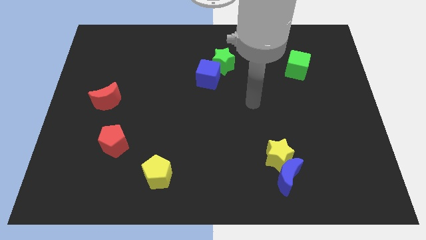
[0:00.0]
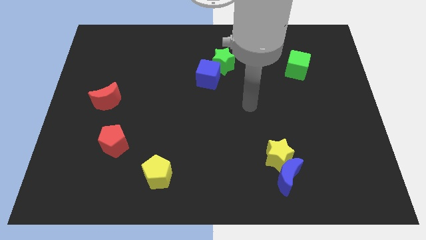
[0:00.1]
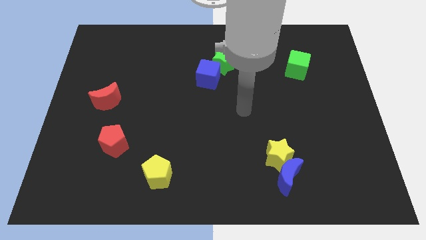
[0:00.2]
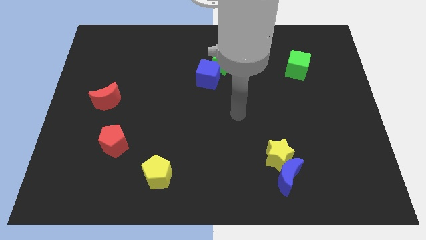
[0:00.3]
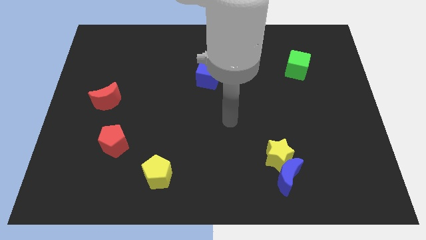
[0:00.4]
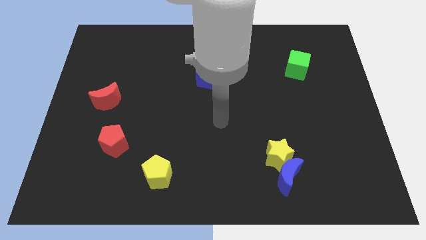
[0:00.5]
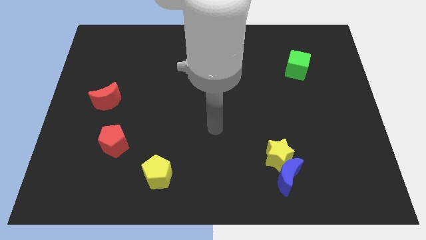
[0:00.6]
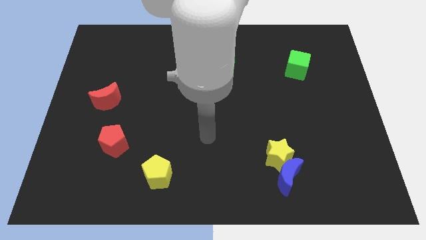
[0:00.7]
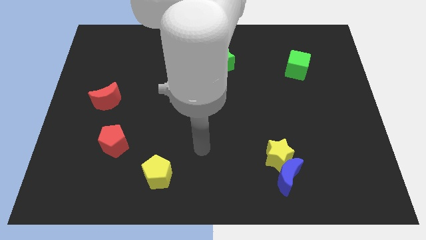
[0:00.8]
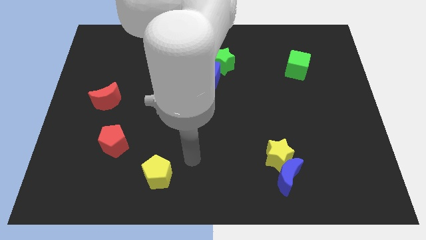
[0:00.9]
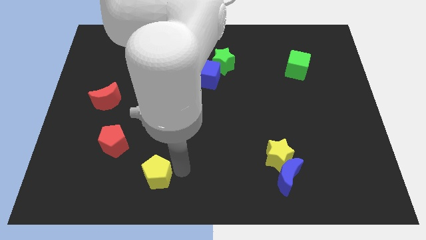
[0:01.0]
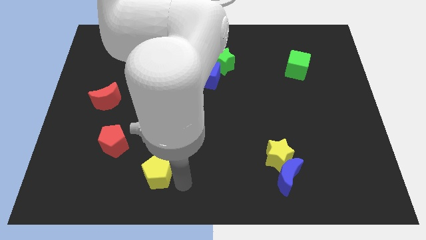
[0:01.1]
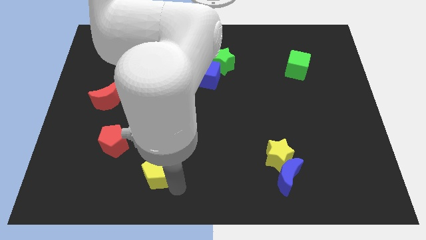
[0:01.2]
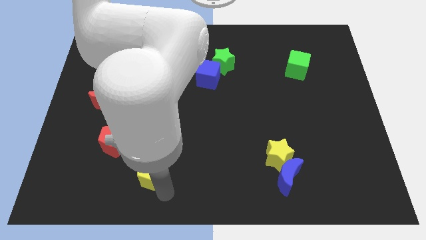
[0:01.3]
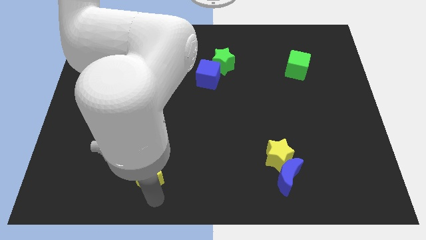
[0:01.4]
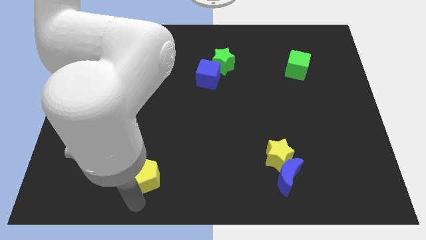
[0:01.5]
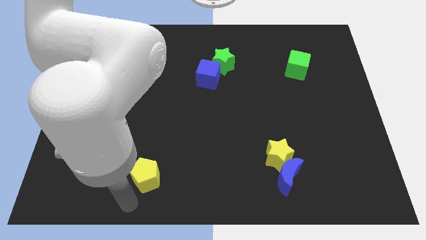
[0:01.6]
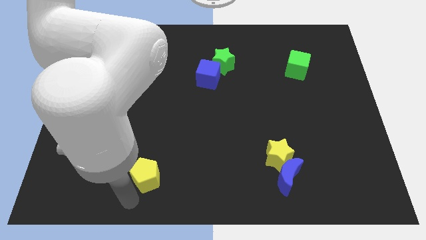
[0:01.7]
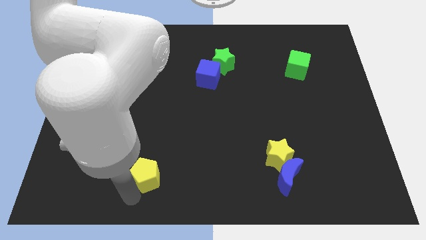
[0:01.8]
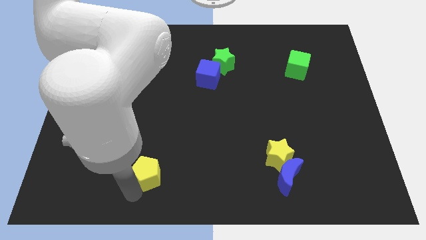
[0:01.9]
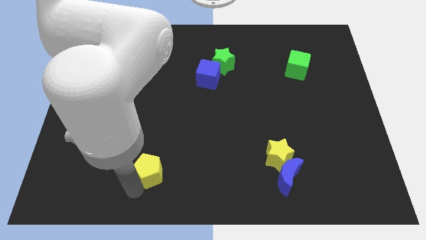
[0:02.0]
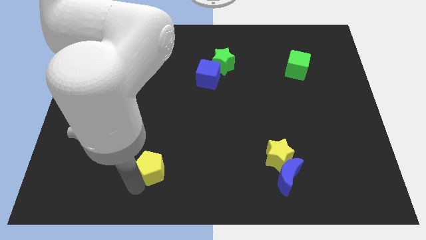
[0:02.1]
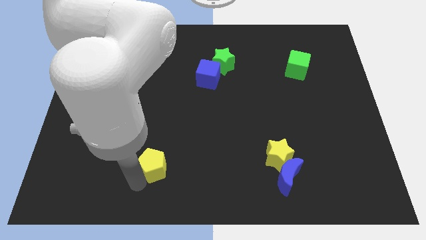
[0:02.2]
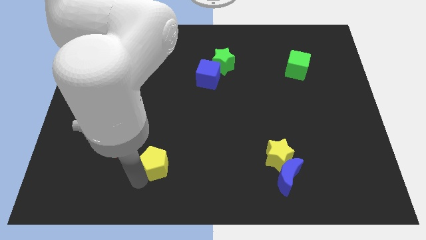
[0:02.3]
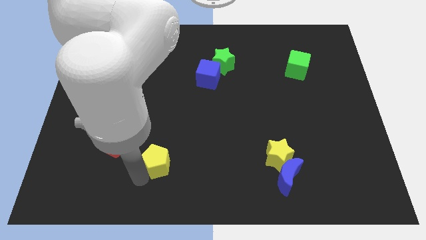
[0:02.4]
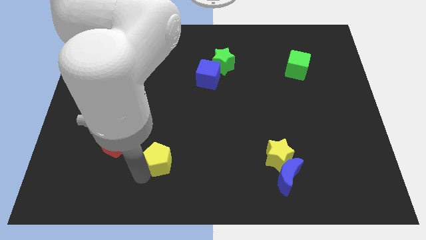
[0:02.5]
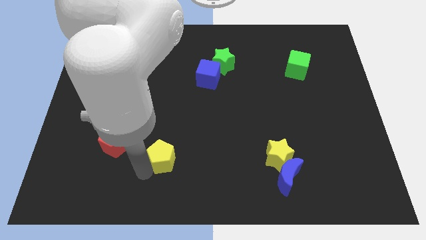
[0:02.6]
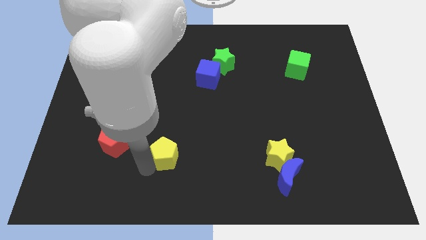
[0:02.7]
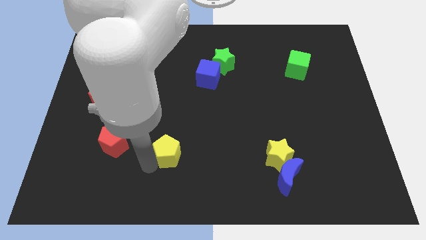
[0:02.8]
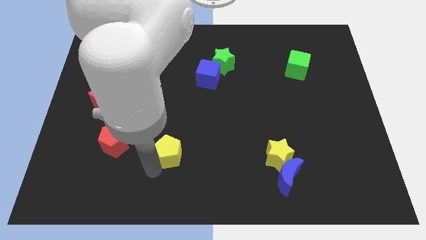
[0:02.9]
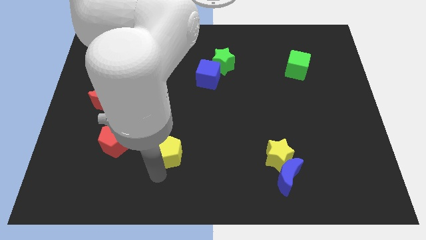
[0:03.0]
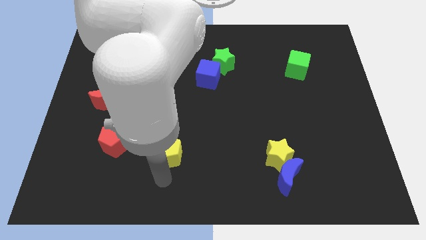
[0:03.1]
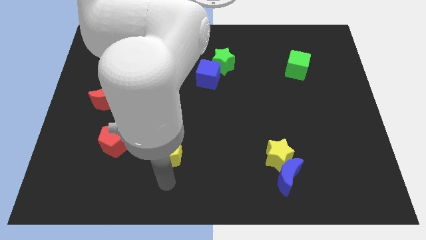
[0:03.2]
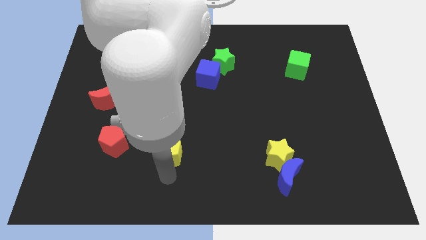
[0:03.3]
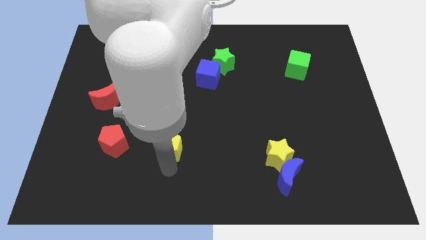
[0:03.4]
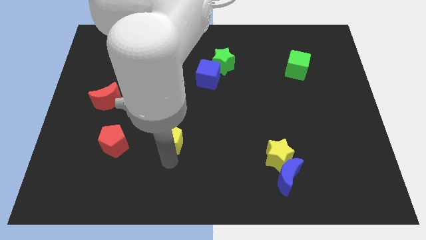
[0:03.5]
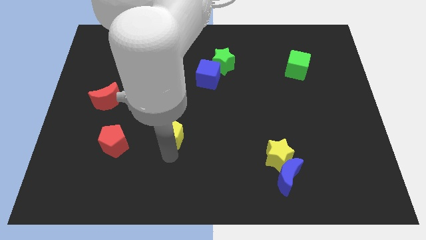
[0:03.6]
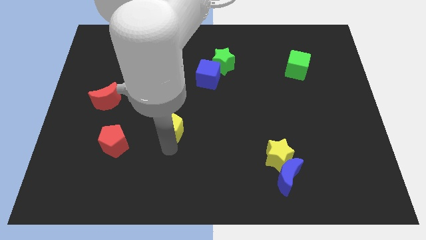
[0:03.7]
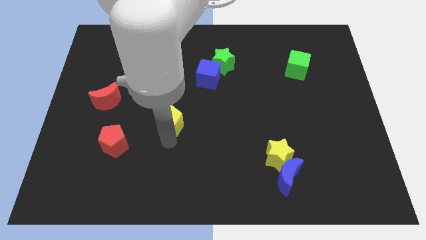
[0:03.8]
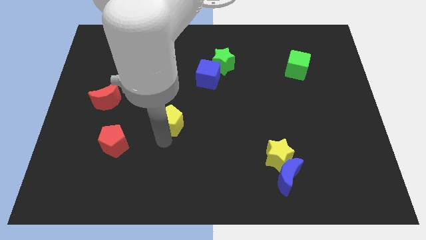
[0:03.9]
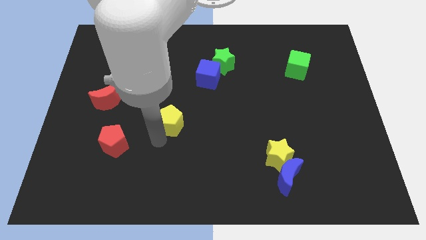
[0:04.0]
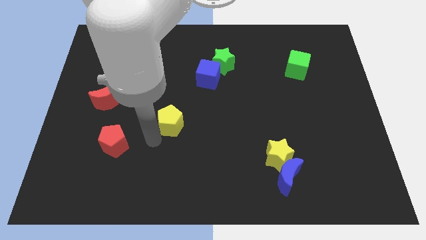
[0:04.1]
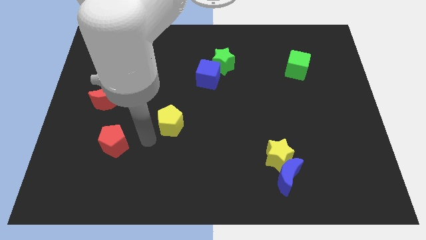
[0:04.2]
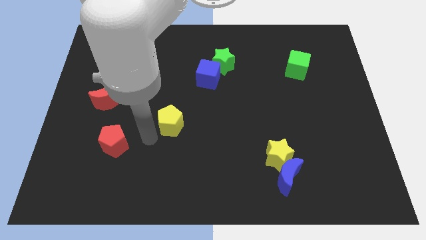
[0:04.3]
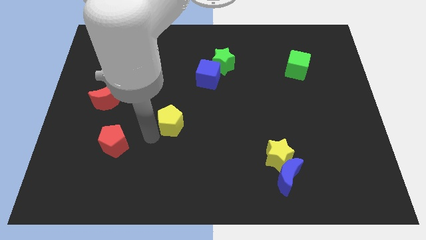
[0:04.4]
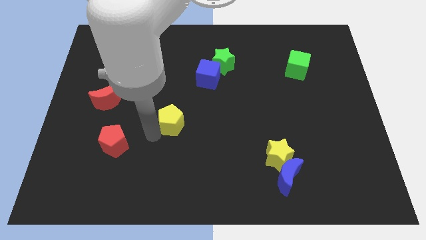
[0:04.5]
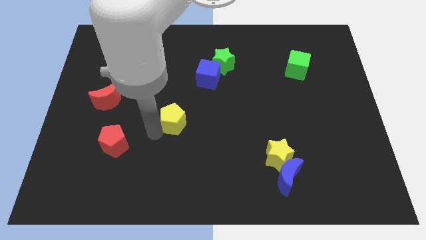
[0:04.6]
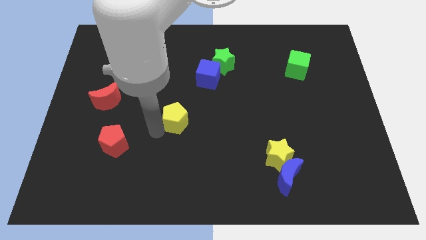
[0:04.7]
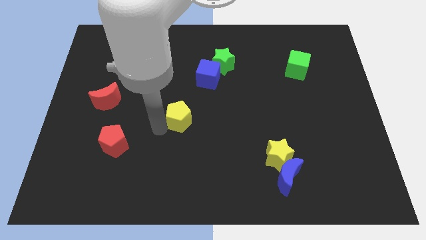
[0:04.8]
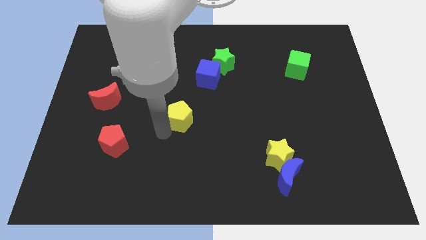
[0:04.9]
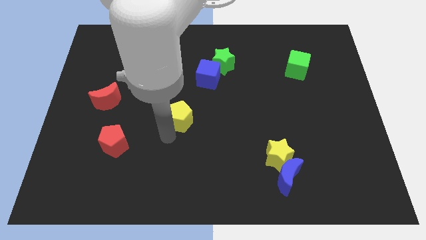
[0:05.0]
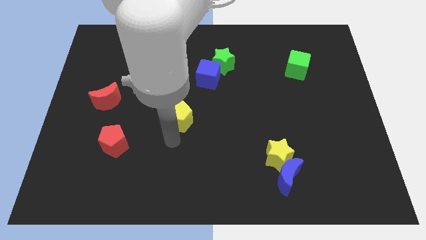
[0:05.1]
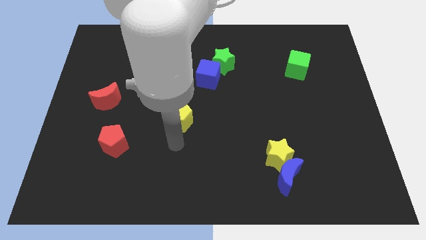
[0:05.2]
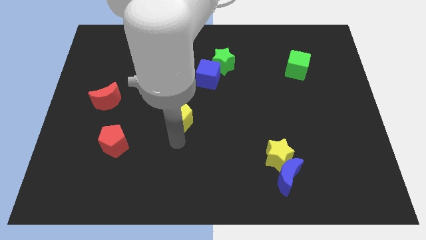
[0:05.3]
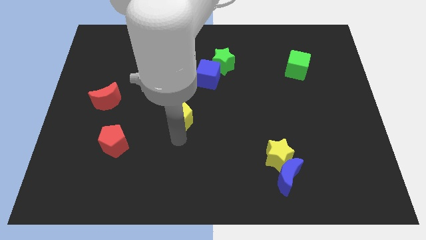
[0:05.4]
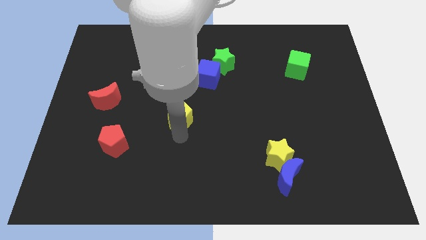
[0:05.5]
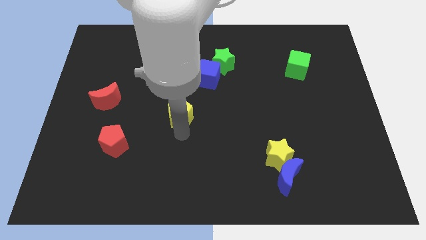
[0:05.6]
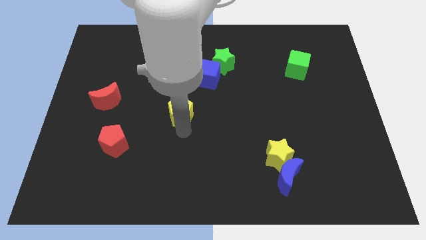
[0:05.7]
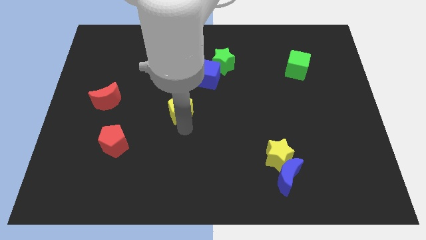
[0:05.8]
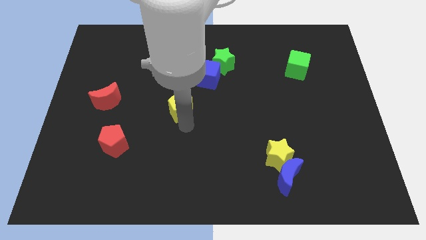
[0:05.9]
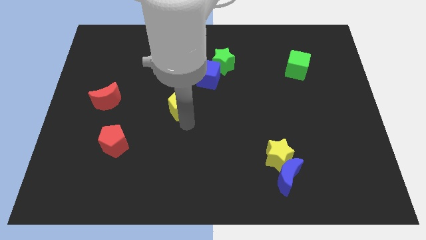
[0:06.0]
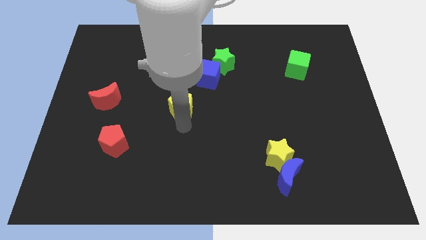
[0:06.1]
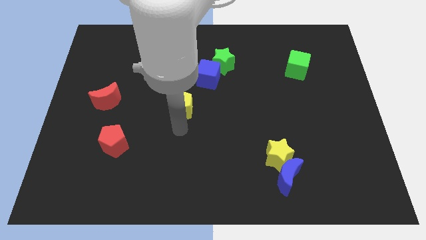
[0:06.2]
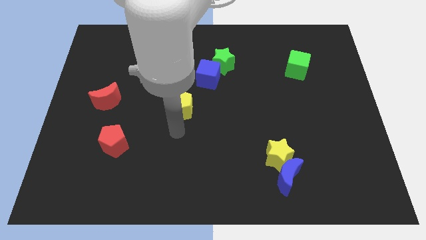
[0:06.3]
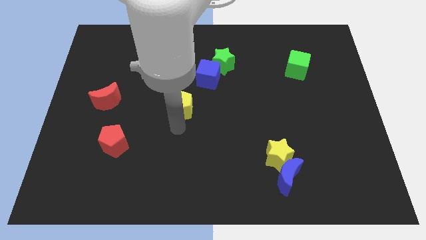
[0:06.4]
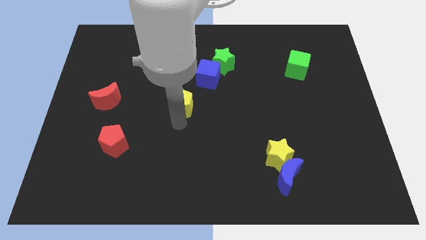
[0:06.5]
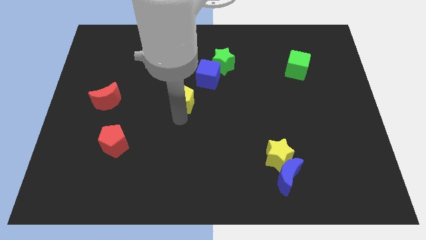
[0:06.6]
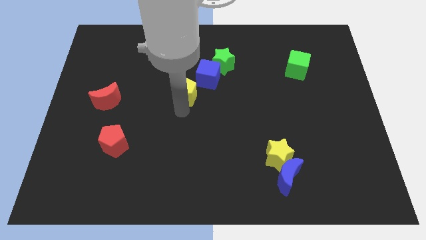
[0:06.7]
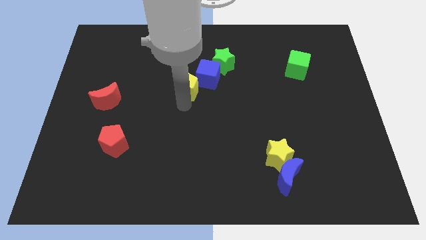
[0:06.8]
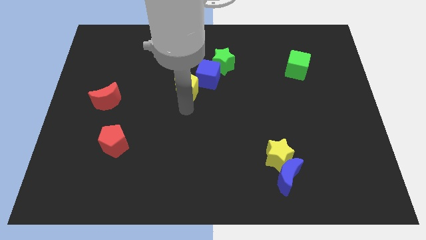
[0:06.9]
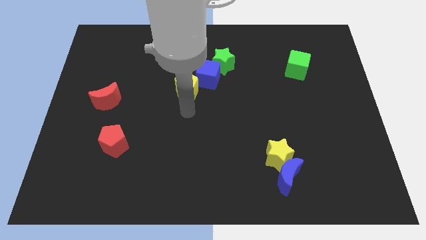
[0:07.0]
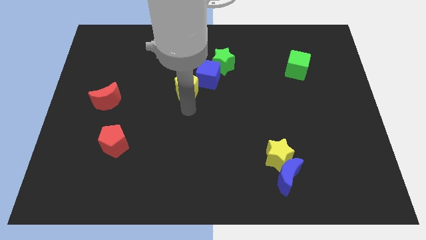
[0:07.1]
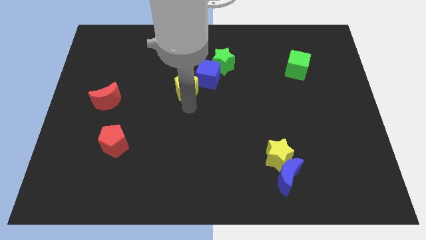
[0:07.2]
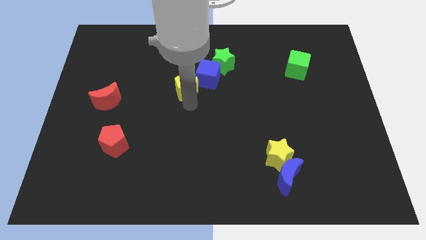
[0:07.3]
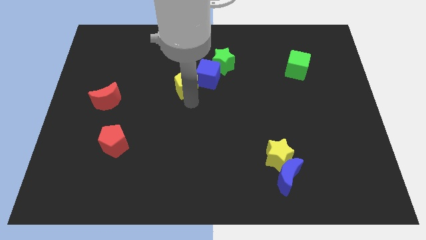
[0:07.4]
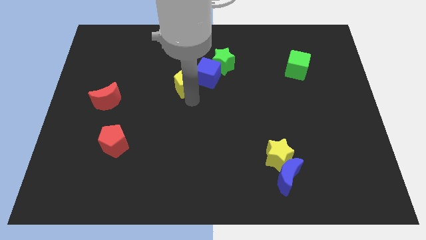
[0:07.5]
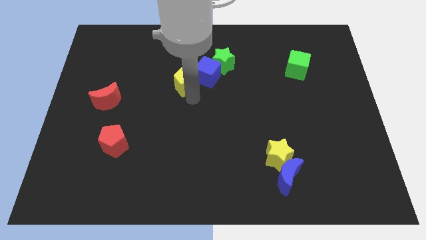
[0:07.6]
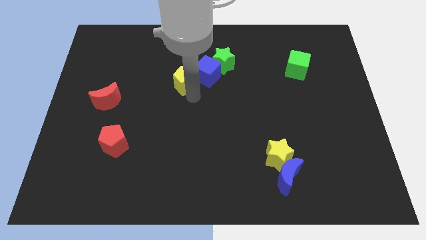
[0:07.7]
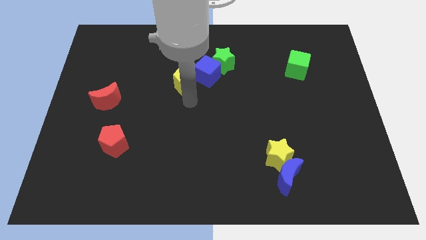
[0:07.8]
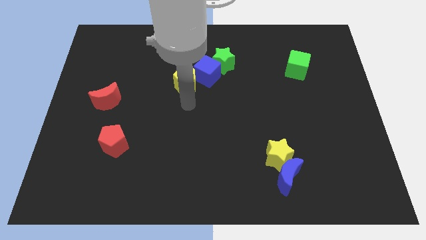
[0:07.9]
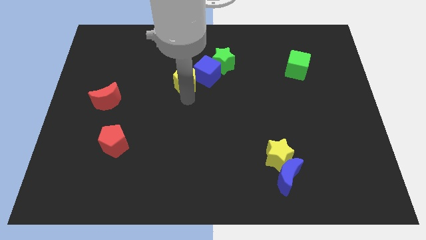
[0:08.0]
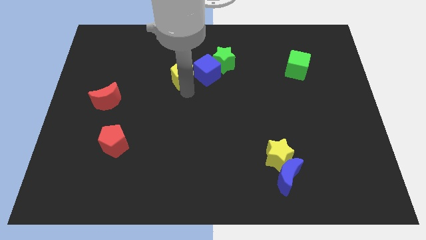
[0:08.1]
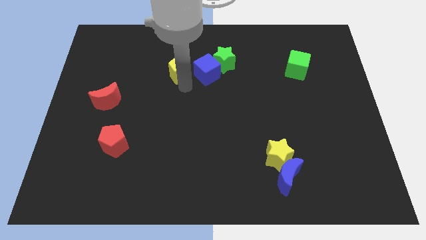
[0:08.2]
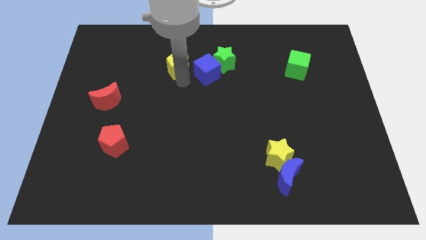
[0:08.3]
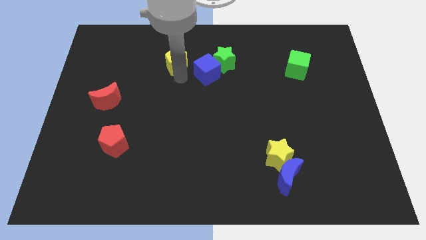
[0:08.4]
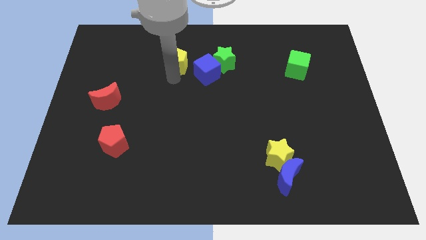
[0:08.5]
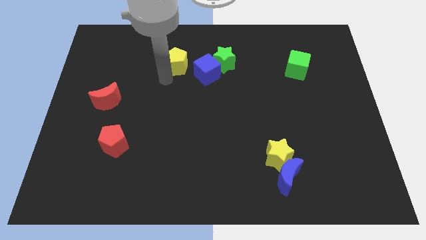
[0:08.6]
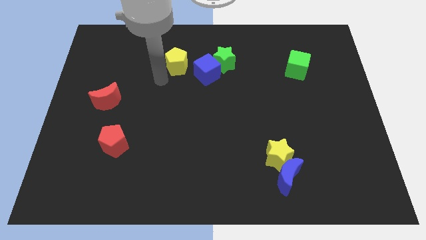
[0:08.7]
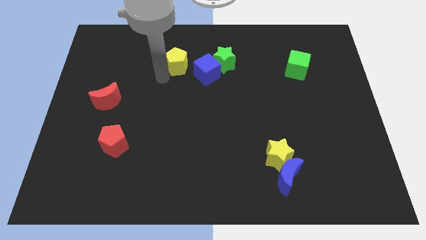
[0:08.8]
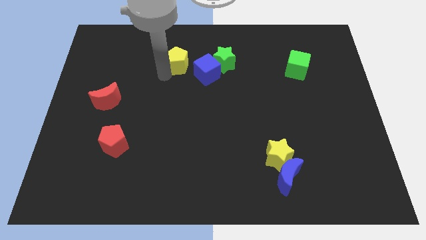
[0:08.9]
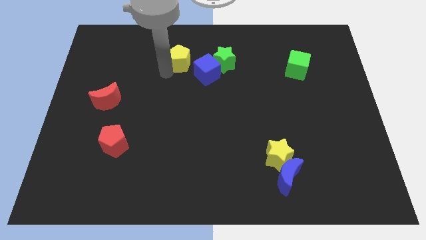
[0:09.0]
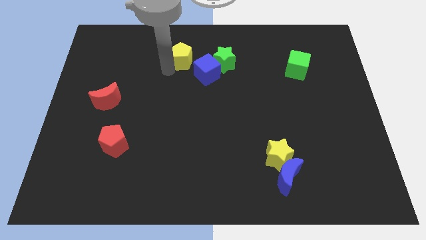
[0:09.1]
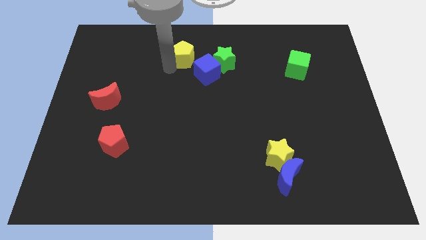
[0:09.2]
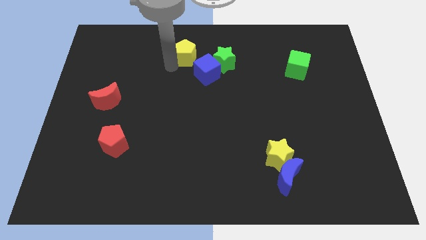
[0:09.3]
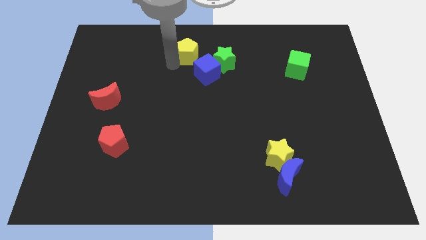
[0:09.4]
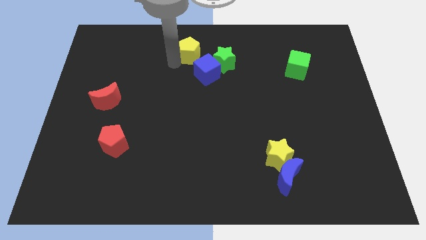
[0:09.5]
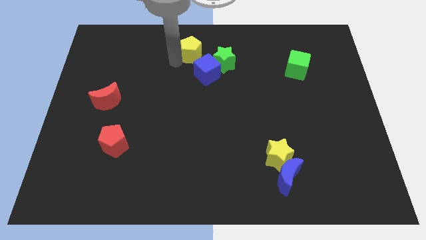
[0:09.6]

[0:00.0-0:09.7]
push the yellow pentagon to the top side
